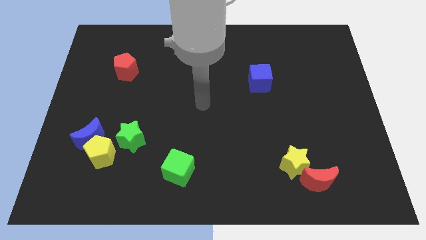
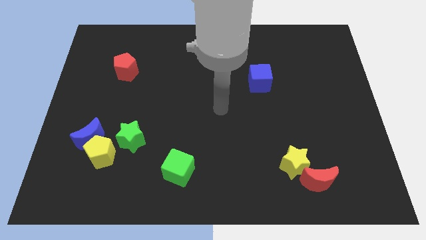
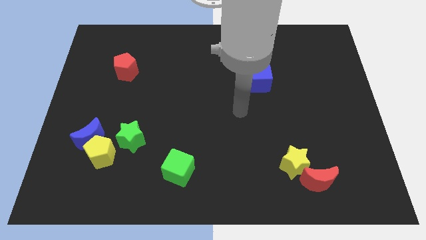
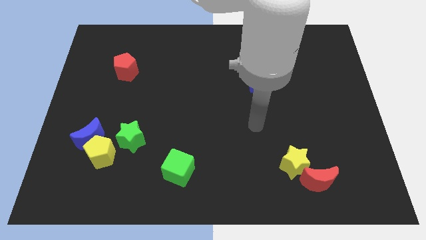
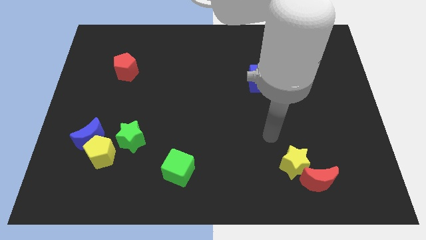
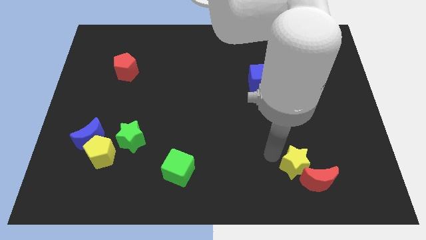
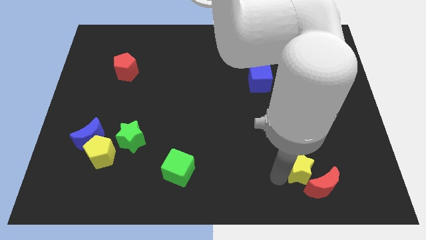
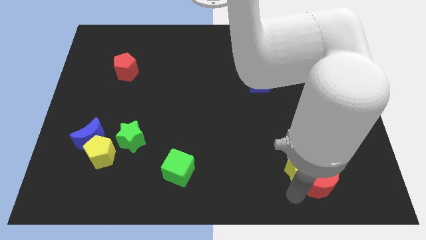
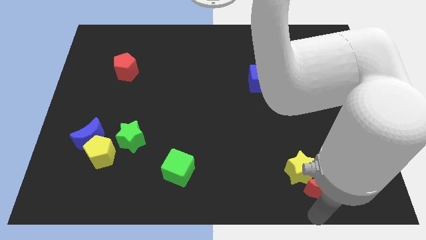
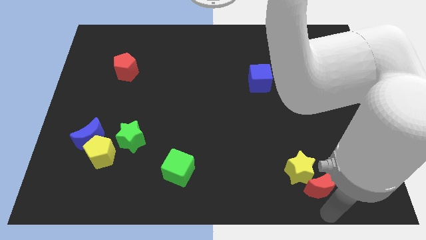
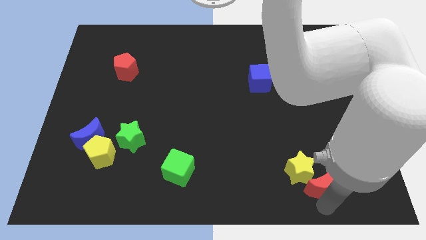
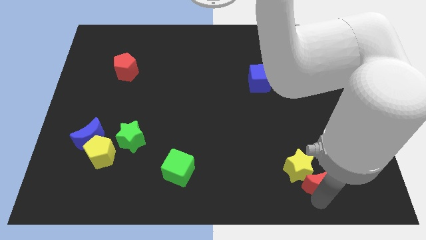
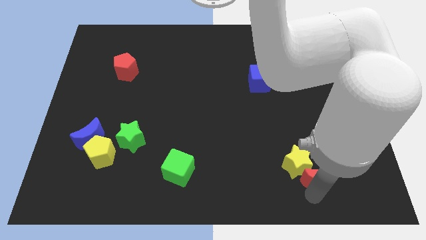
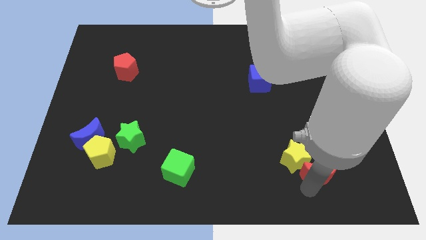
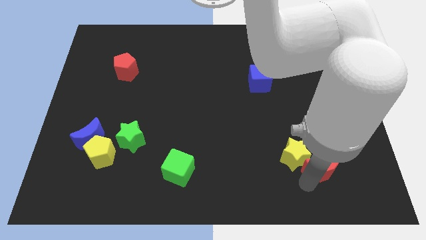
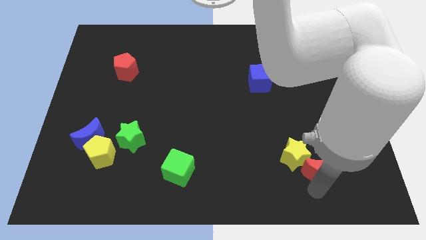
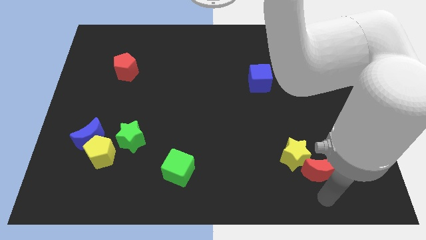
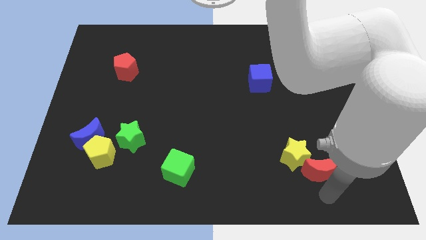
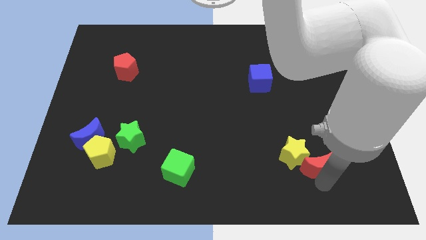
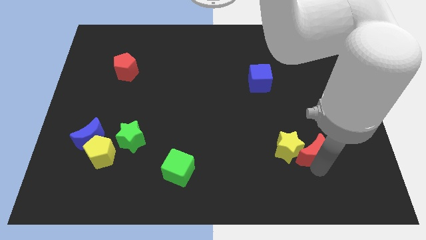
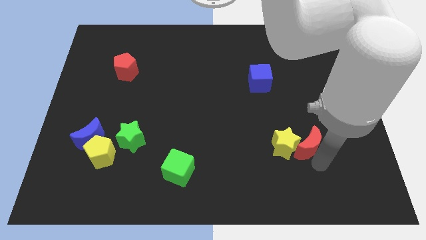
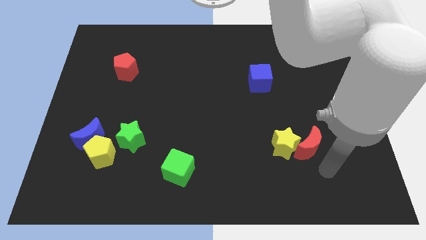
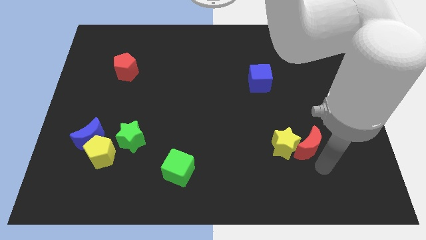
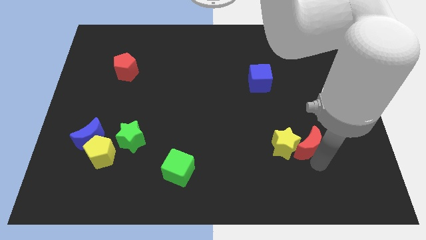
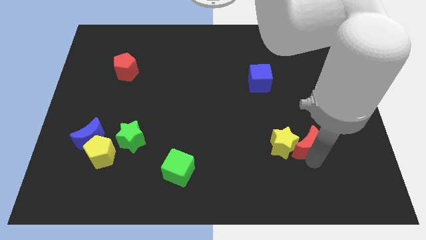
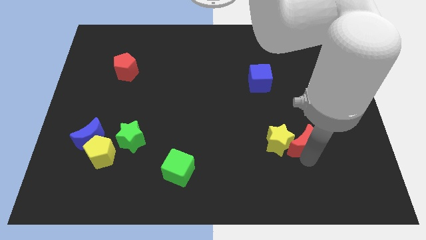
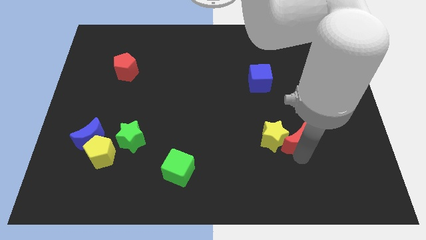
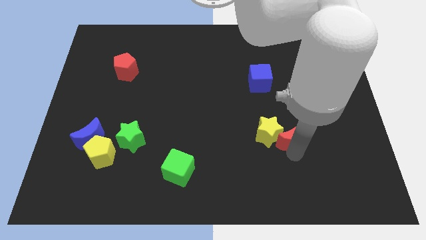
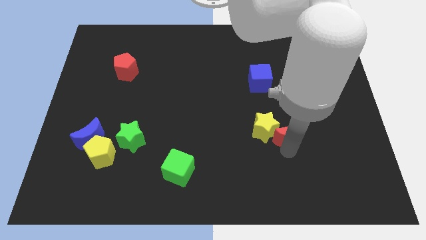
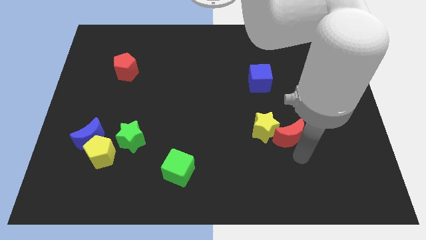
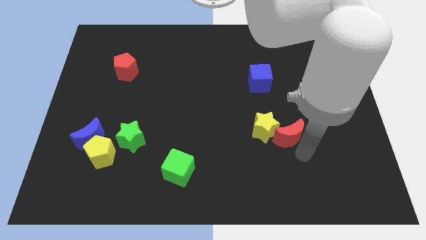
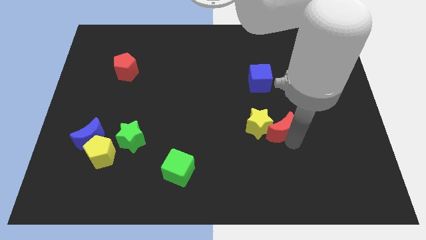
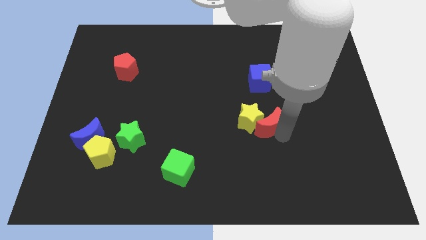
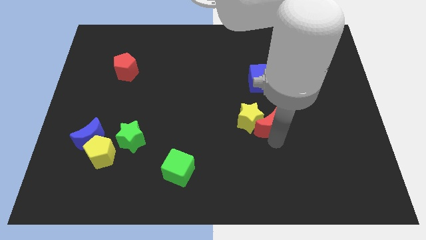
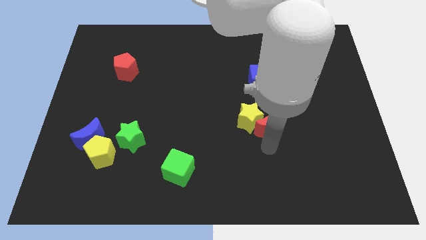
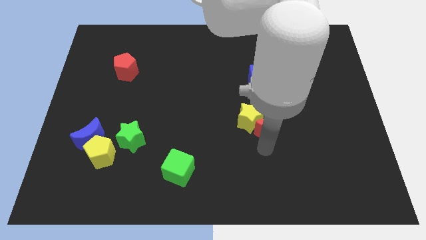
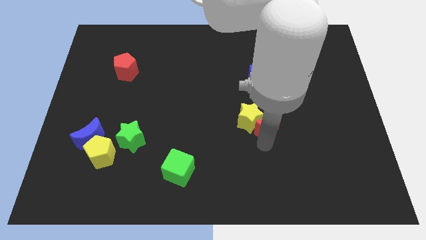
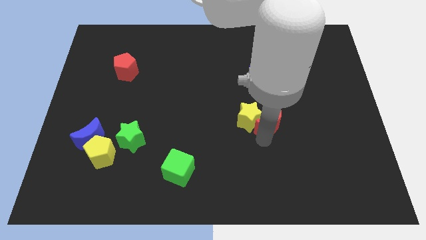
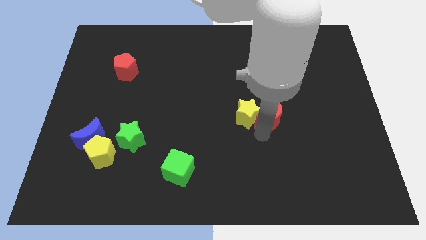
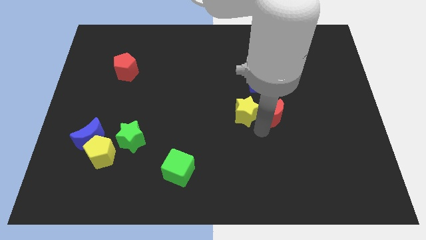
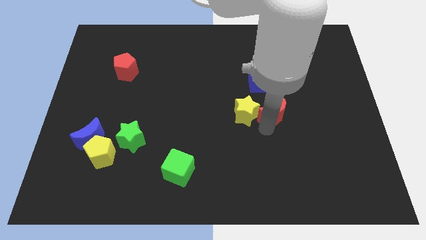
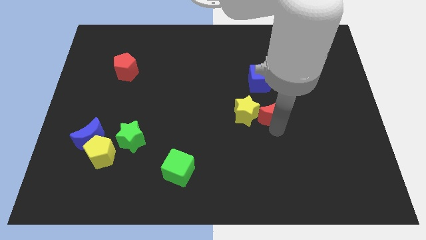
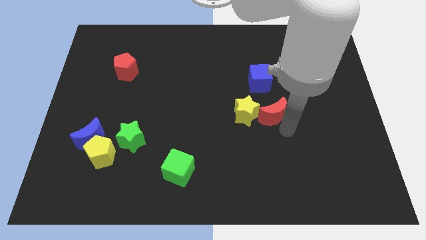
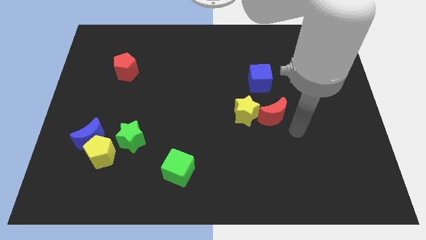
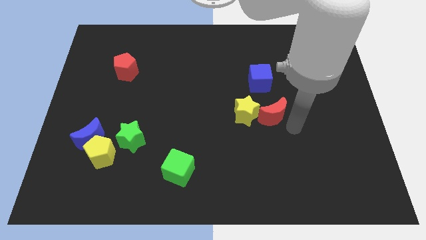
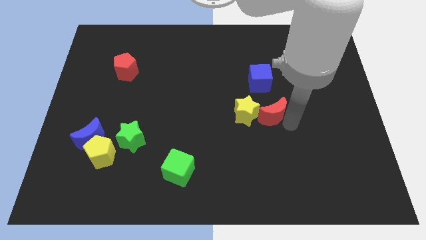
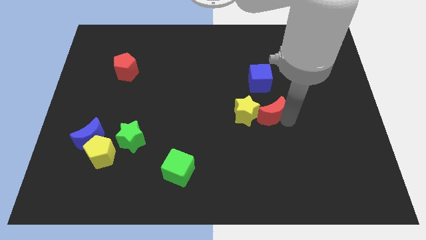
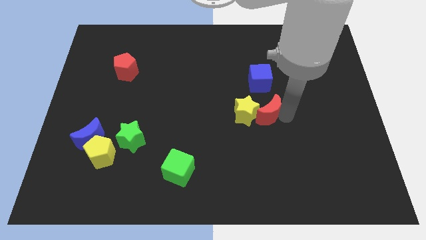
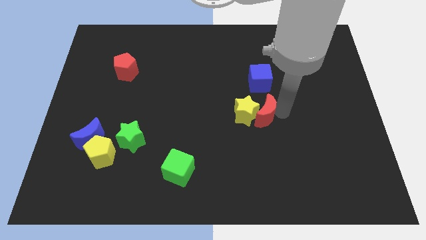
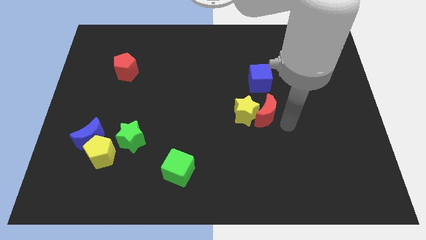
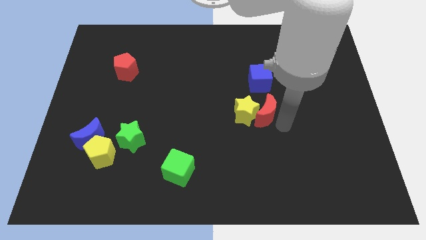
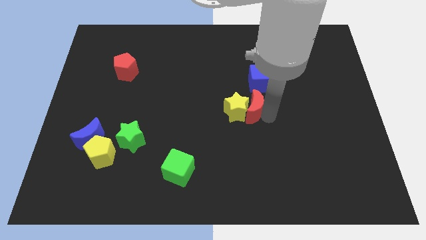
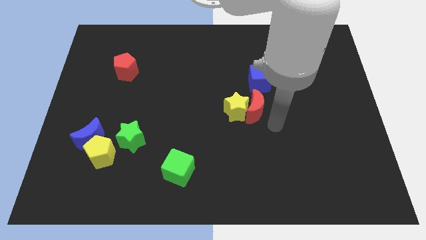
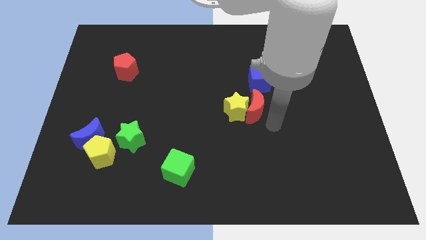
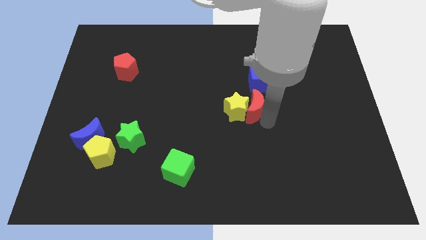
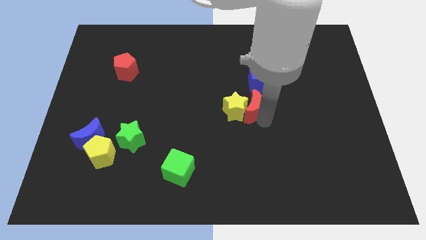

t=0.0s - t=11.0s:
put the red moon to the bottom left side of the blue cube

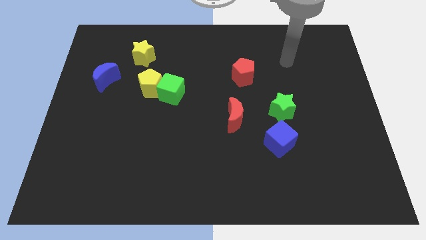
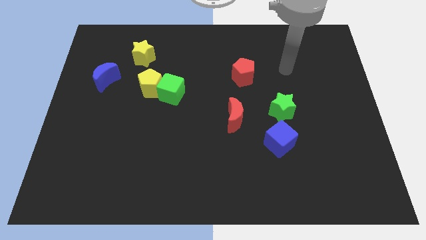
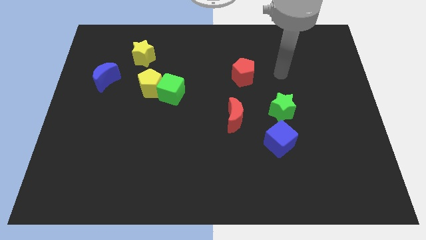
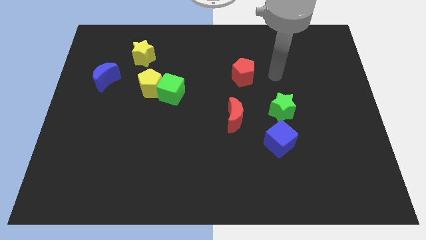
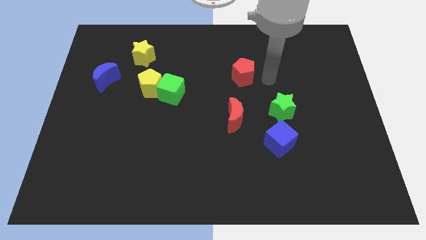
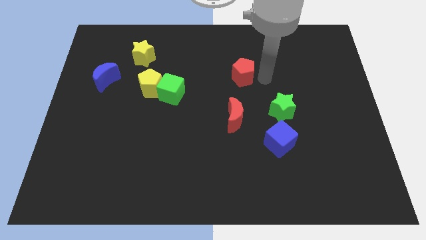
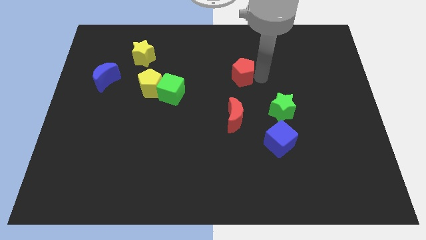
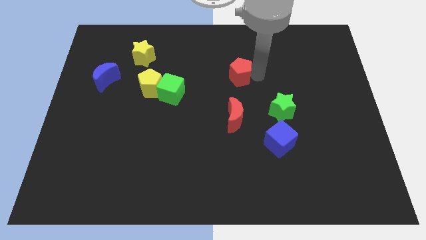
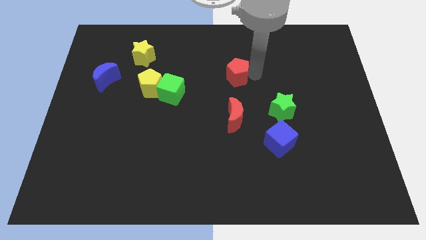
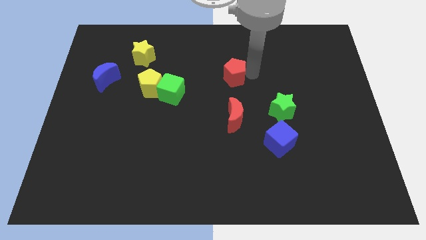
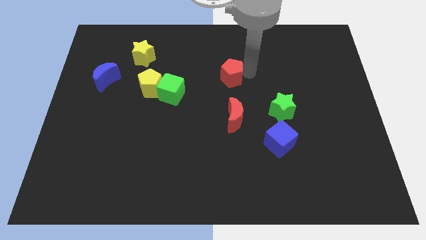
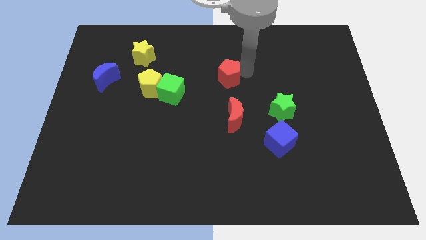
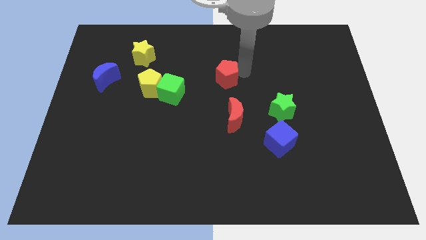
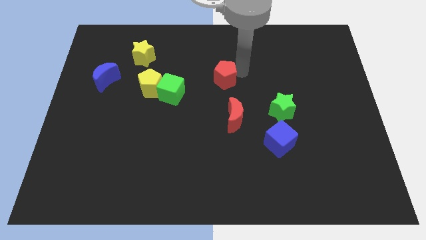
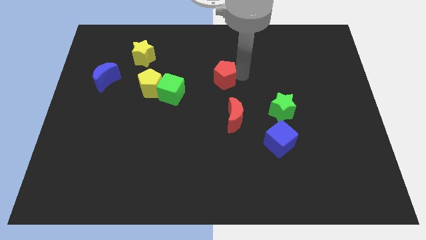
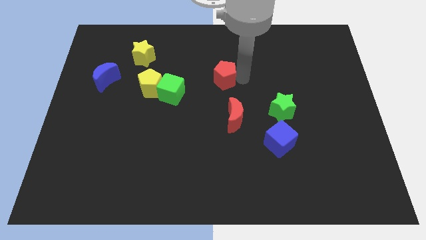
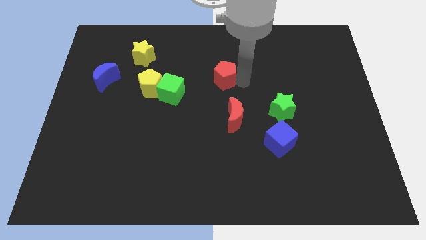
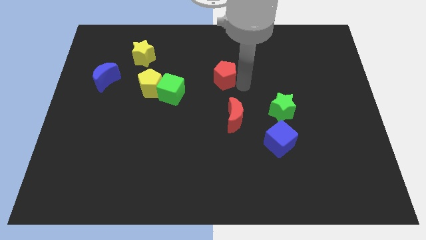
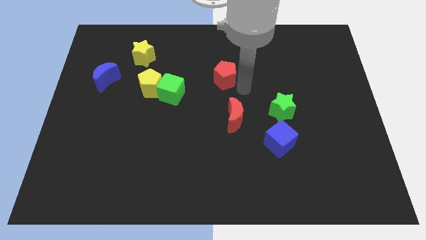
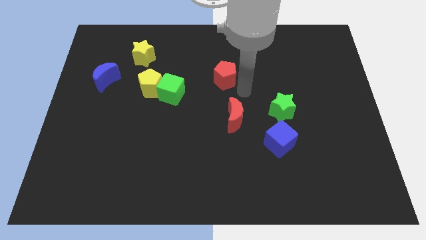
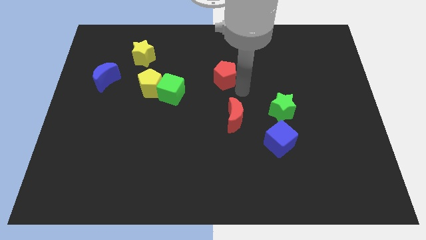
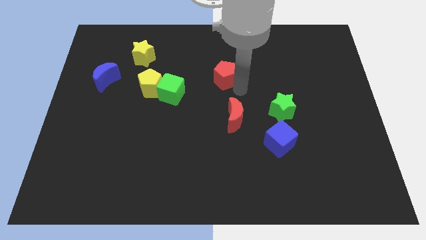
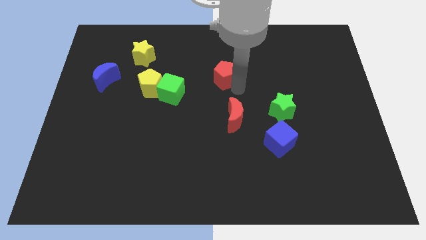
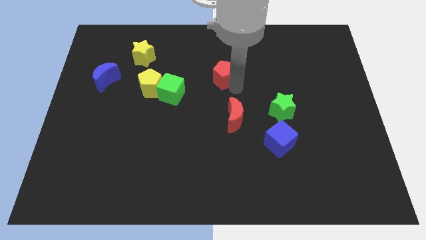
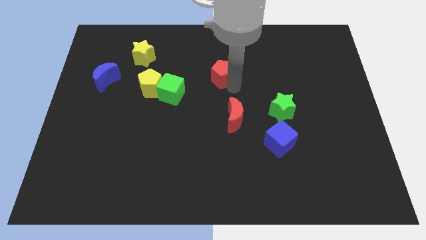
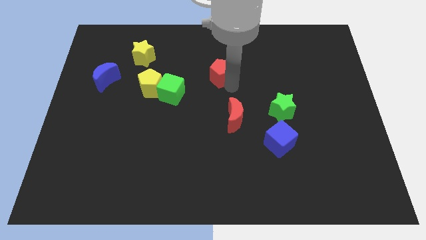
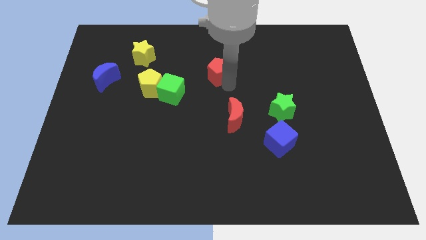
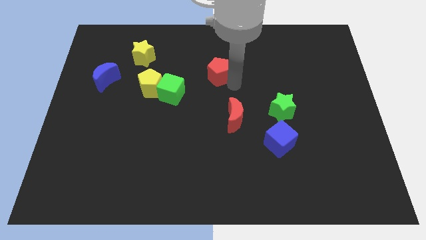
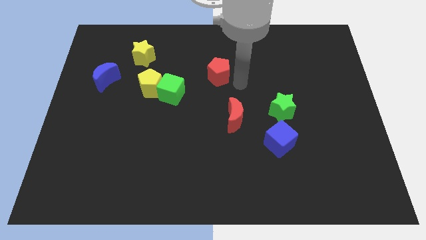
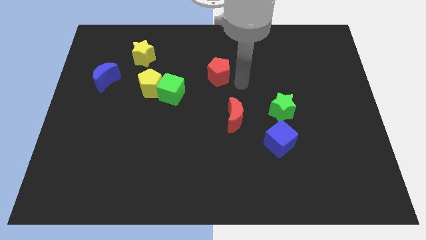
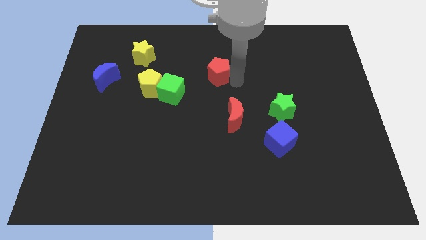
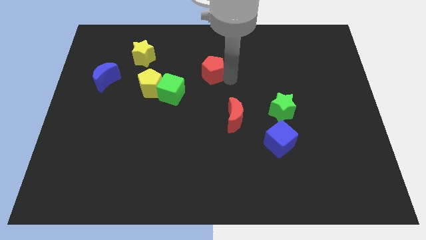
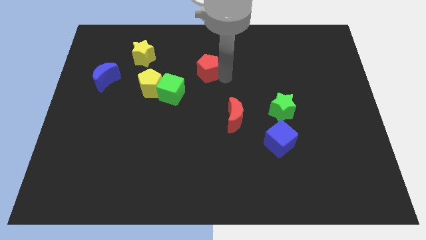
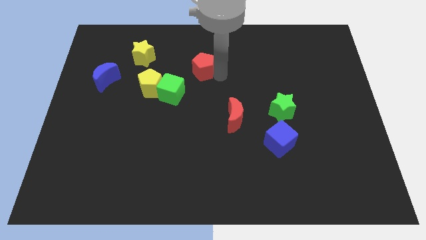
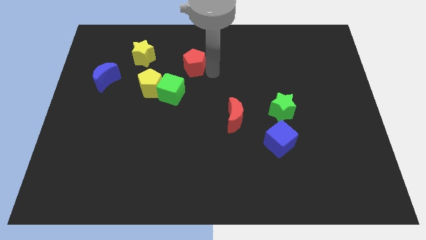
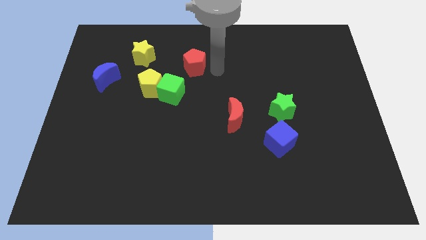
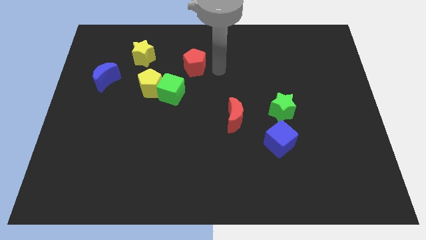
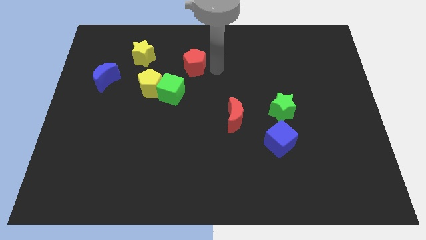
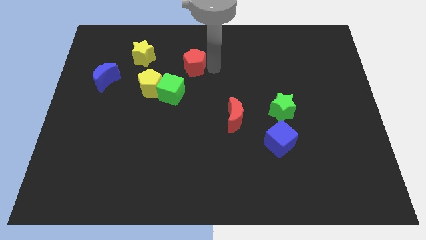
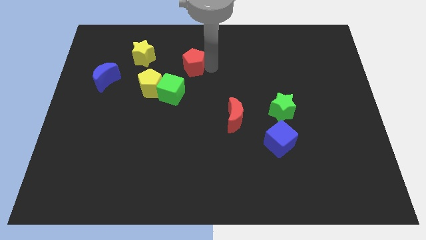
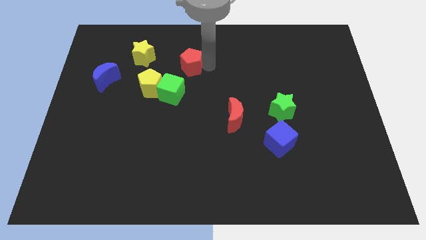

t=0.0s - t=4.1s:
slide the red pentagon to the top of the green cube
